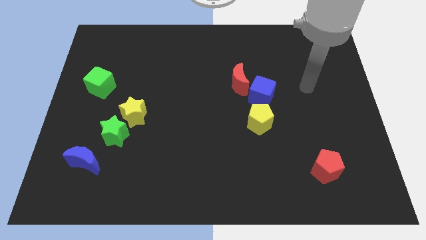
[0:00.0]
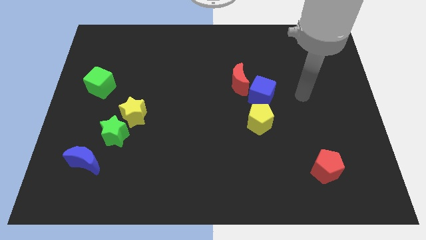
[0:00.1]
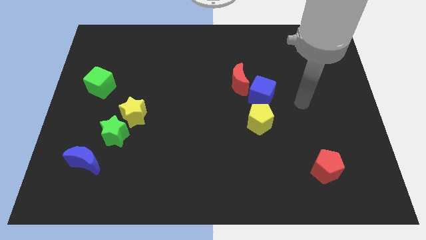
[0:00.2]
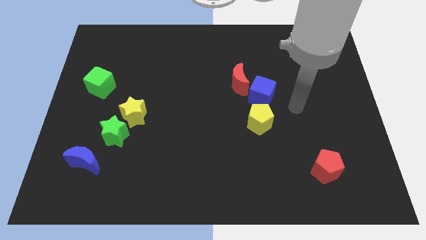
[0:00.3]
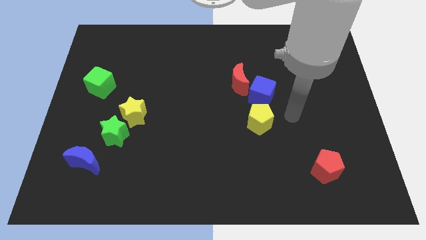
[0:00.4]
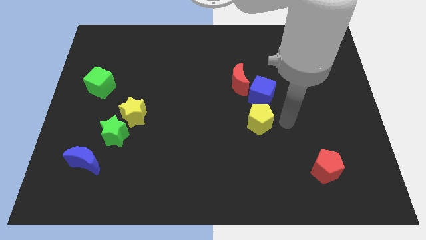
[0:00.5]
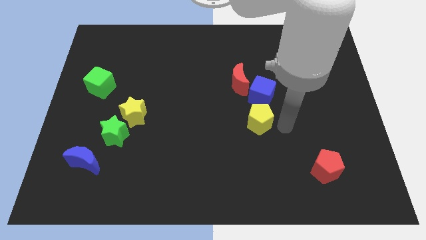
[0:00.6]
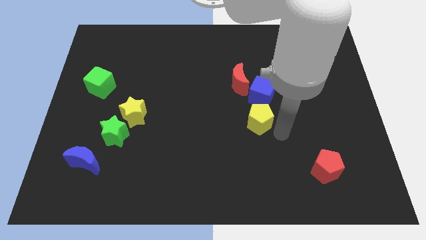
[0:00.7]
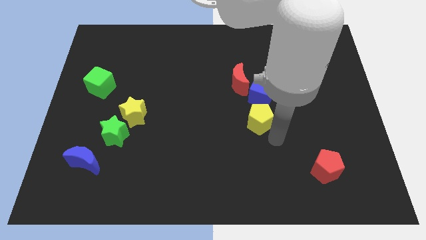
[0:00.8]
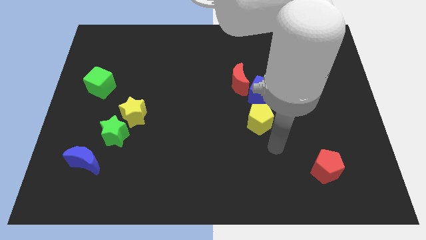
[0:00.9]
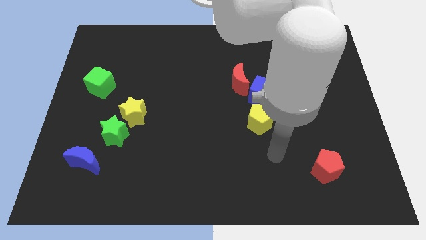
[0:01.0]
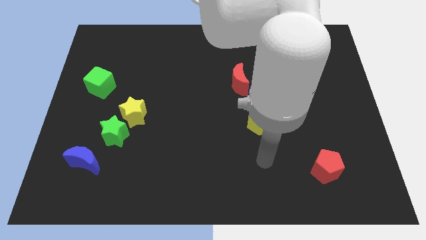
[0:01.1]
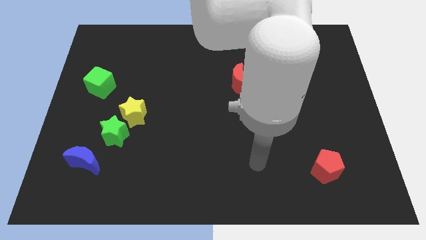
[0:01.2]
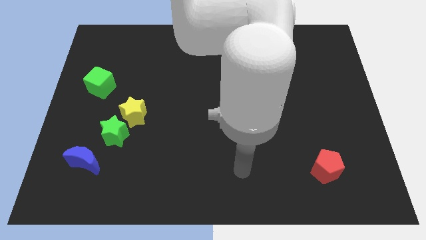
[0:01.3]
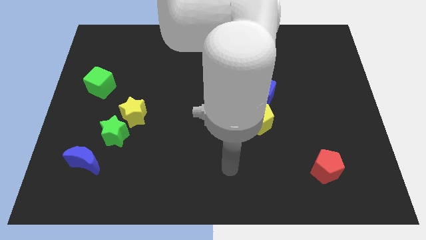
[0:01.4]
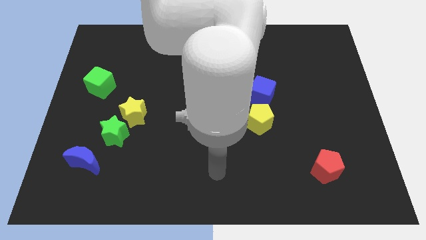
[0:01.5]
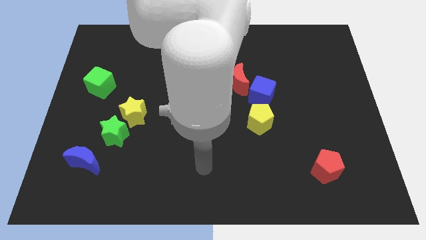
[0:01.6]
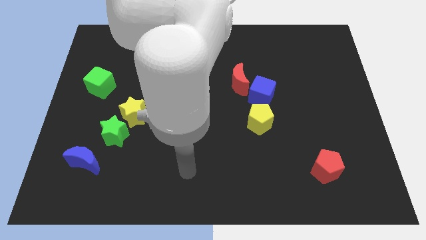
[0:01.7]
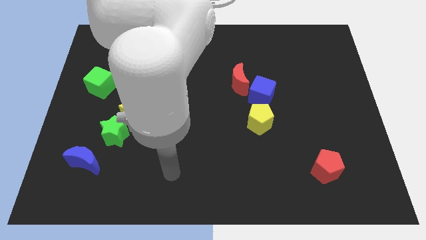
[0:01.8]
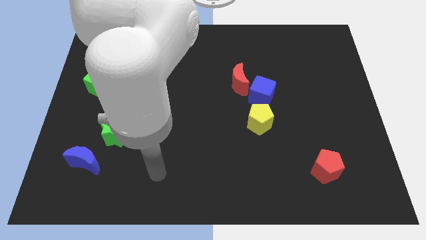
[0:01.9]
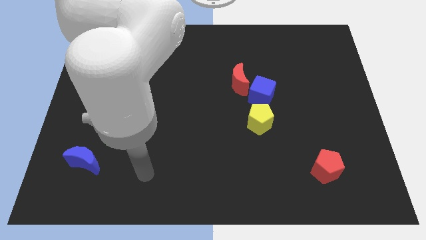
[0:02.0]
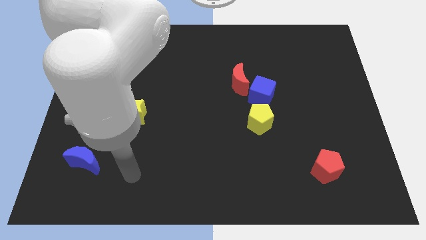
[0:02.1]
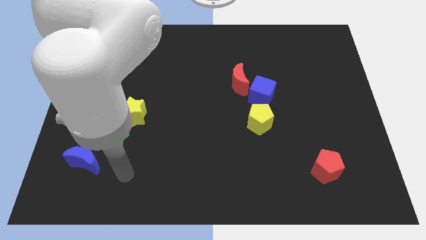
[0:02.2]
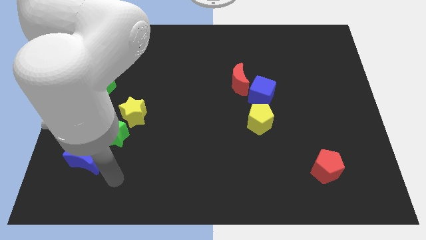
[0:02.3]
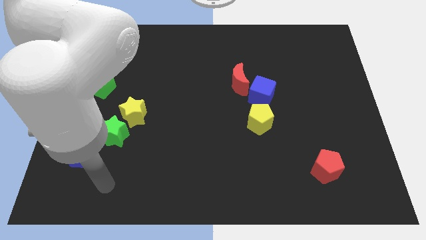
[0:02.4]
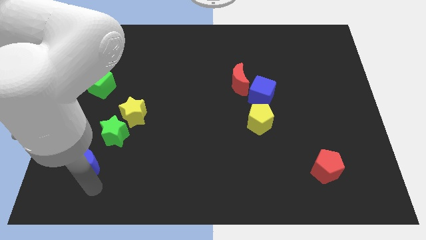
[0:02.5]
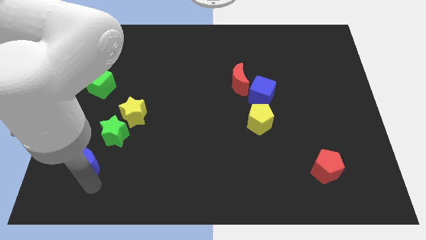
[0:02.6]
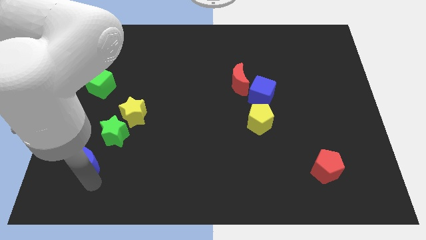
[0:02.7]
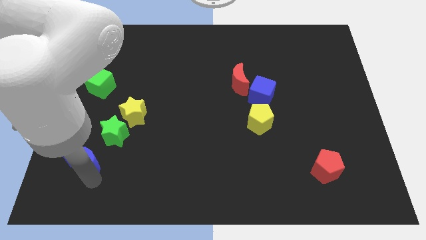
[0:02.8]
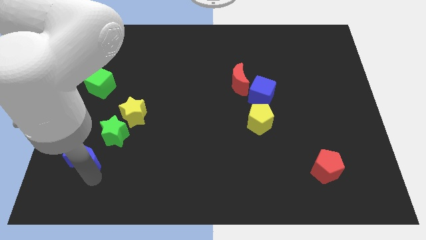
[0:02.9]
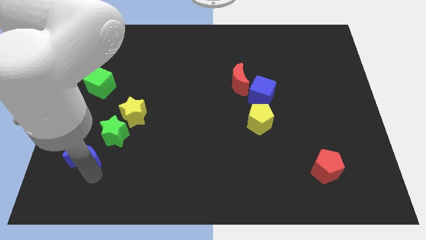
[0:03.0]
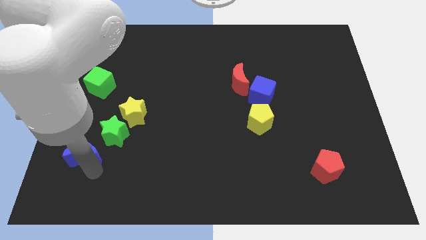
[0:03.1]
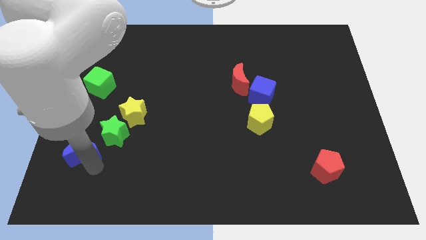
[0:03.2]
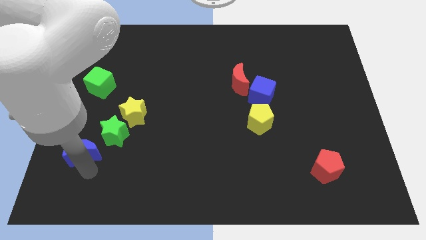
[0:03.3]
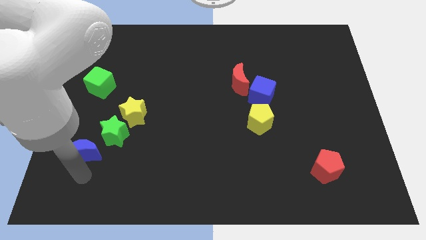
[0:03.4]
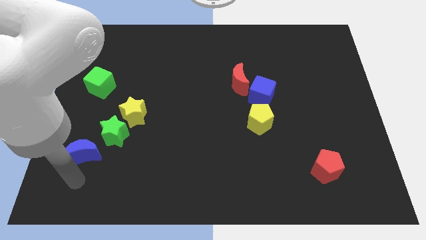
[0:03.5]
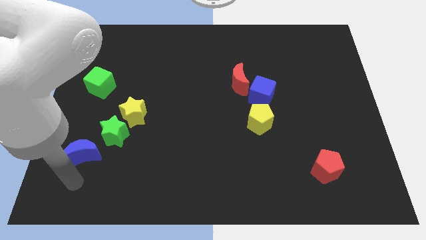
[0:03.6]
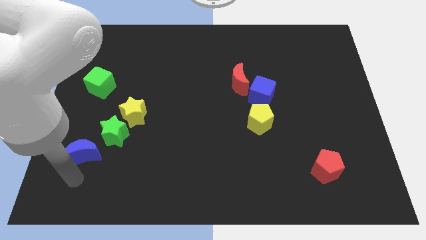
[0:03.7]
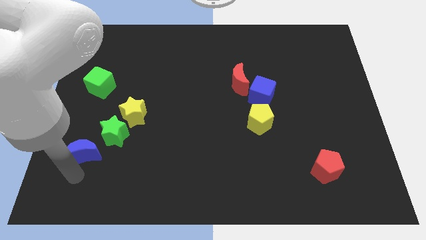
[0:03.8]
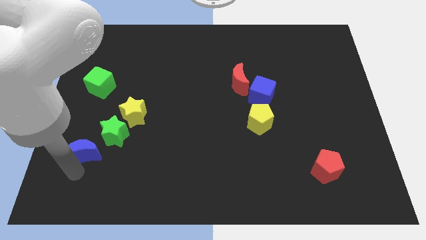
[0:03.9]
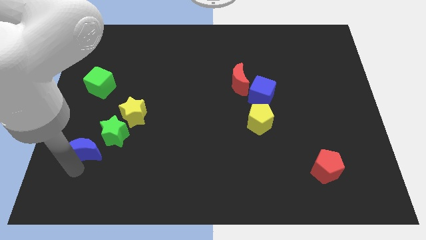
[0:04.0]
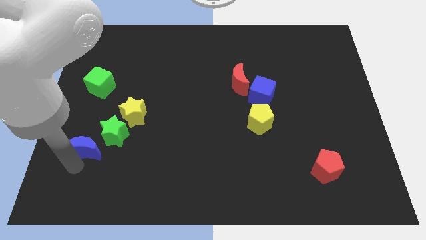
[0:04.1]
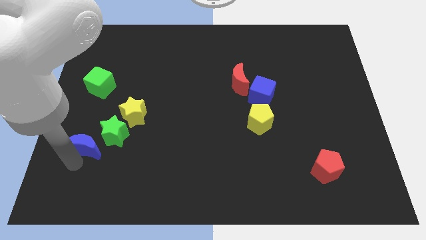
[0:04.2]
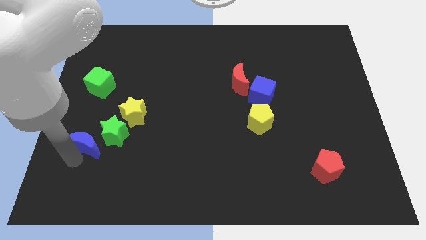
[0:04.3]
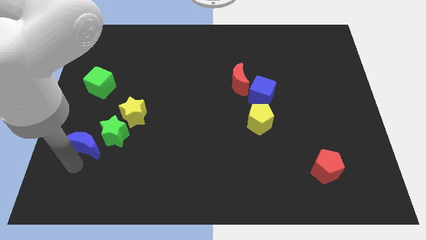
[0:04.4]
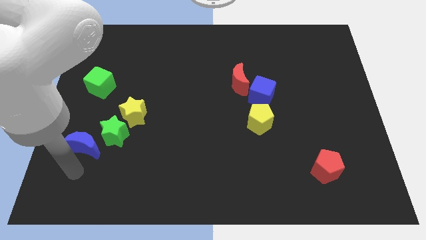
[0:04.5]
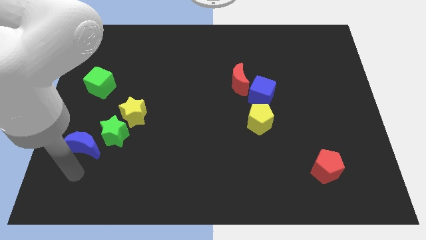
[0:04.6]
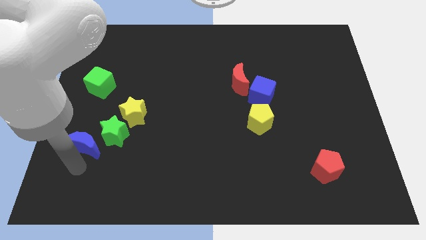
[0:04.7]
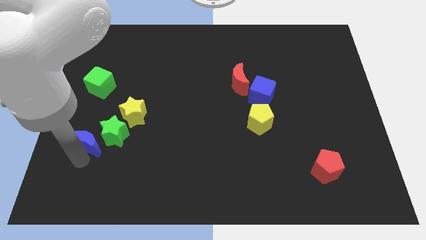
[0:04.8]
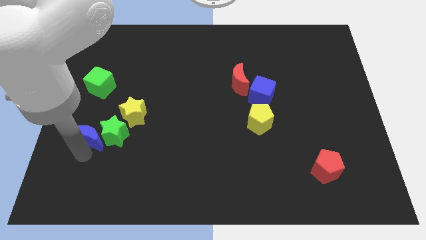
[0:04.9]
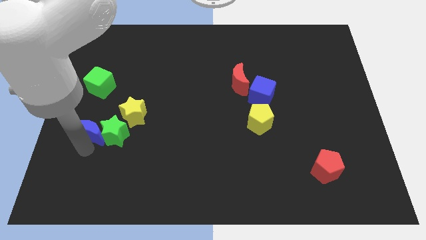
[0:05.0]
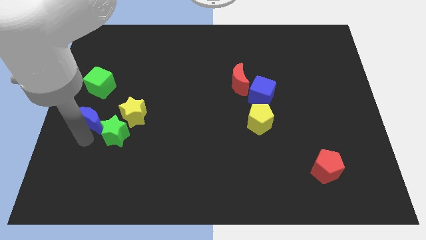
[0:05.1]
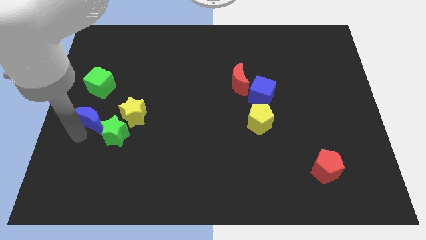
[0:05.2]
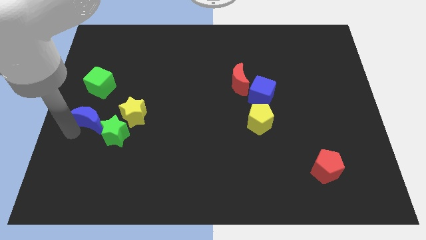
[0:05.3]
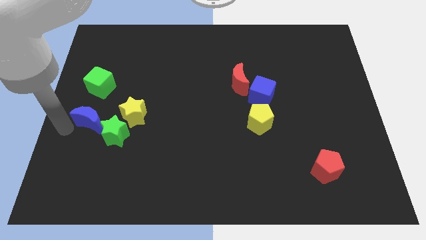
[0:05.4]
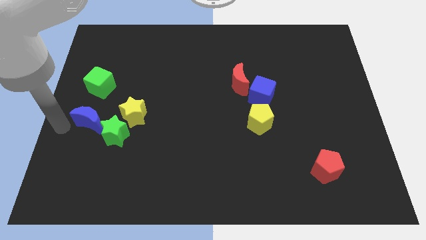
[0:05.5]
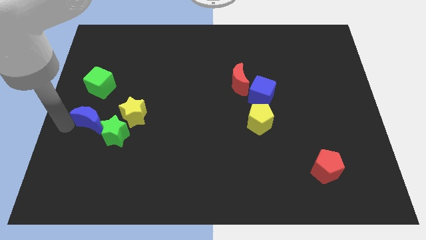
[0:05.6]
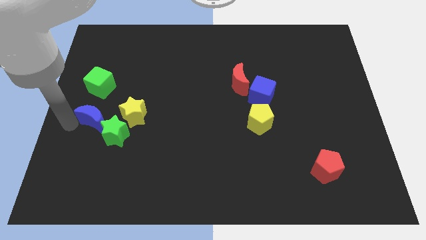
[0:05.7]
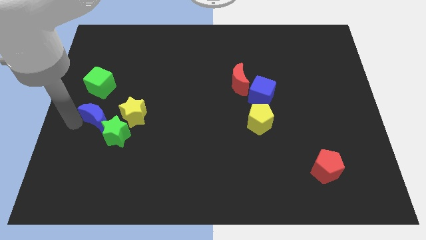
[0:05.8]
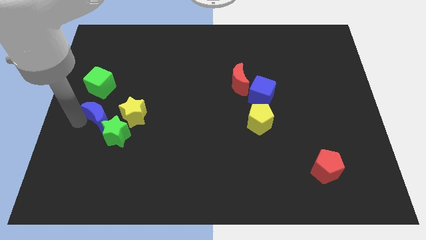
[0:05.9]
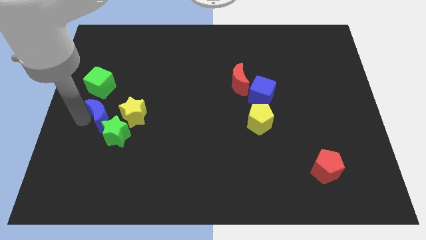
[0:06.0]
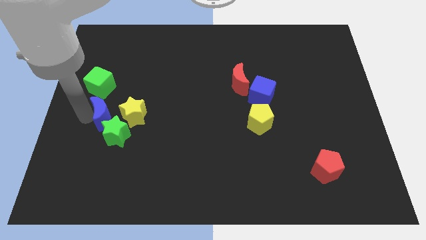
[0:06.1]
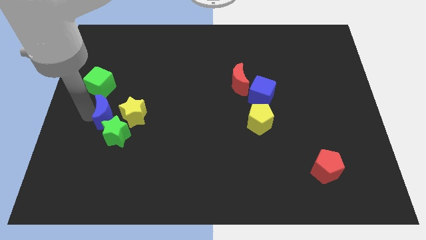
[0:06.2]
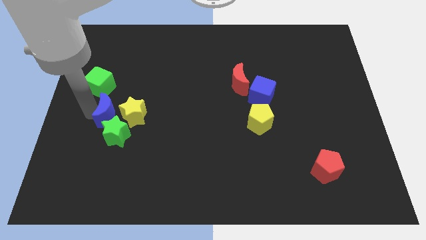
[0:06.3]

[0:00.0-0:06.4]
move the blue moon to the yellow star

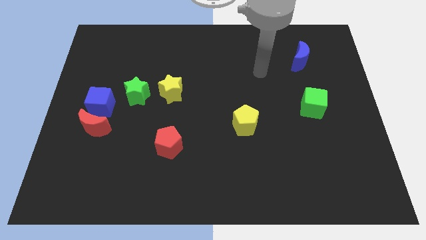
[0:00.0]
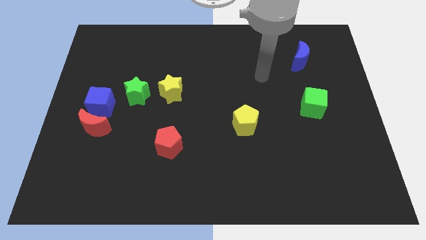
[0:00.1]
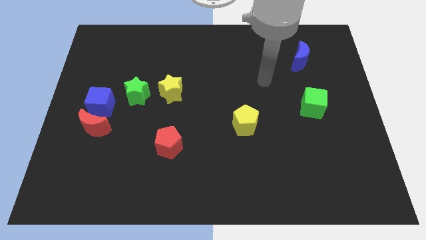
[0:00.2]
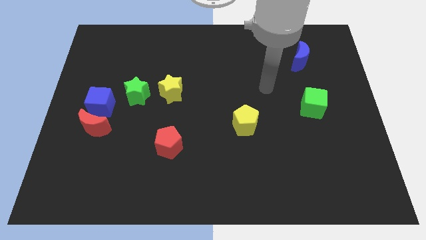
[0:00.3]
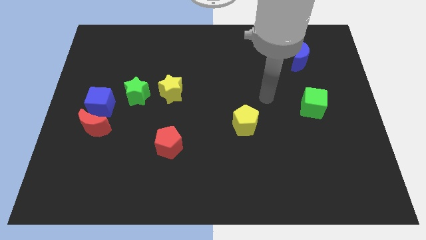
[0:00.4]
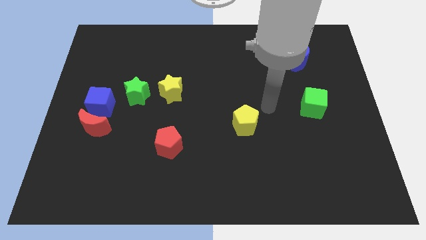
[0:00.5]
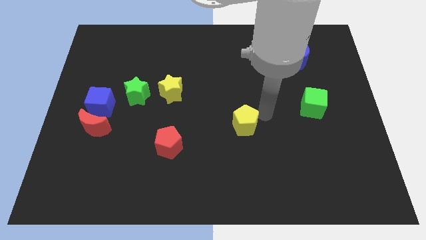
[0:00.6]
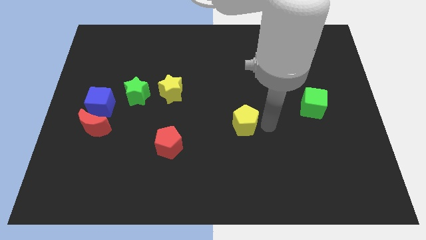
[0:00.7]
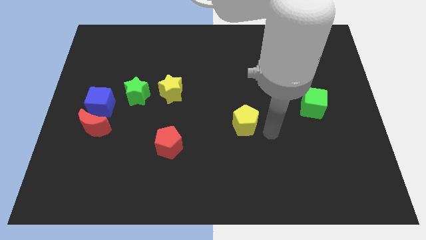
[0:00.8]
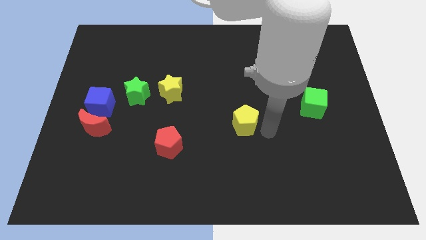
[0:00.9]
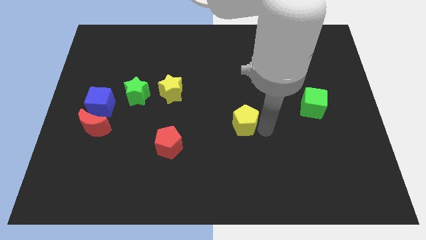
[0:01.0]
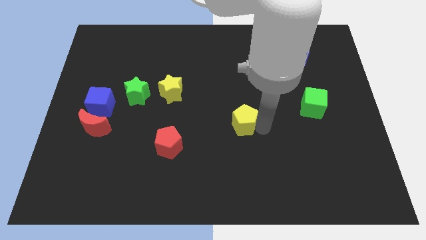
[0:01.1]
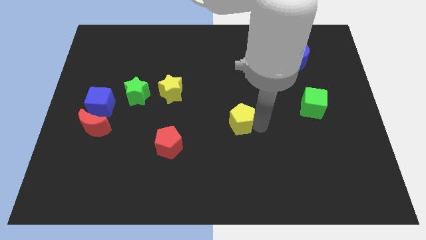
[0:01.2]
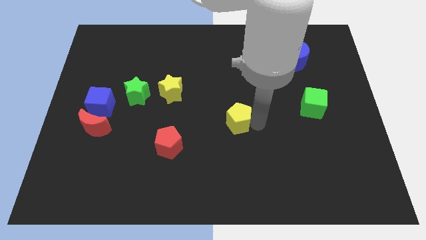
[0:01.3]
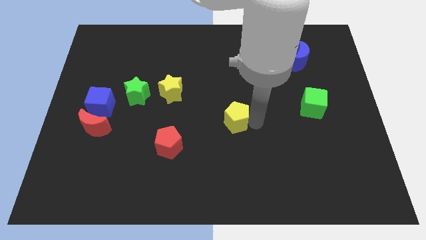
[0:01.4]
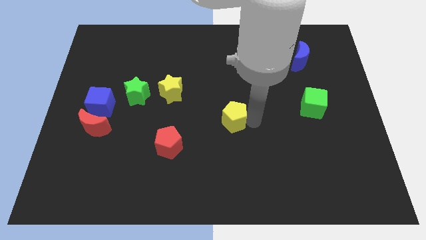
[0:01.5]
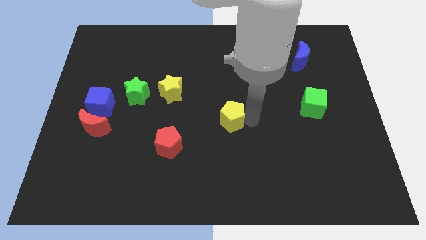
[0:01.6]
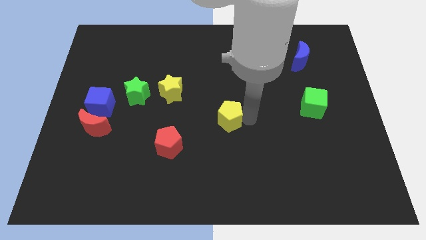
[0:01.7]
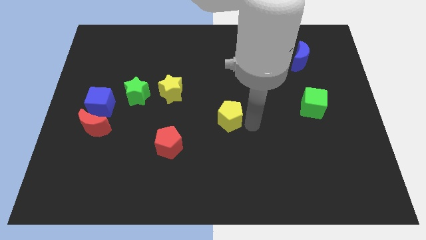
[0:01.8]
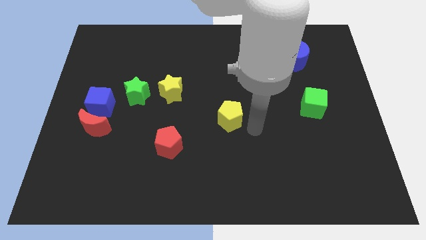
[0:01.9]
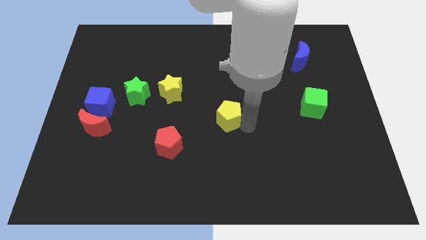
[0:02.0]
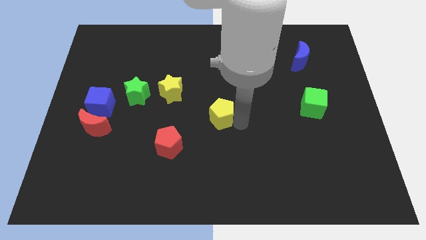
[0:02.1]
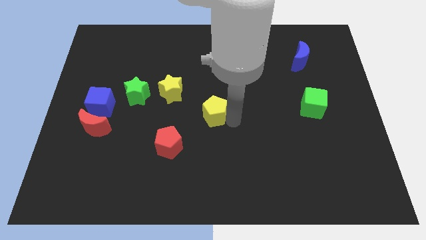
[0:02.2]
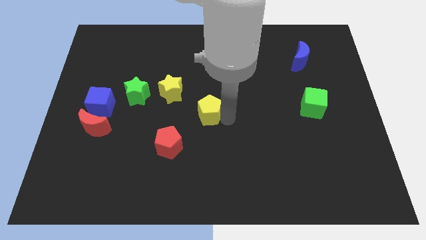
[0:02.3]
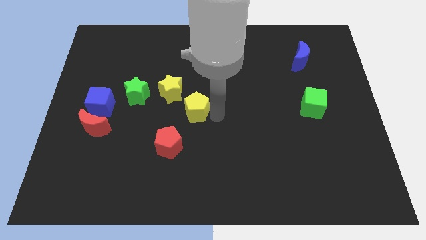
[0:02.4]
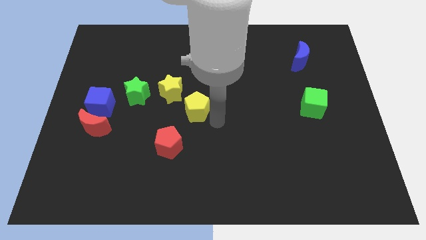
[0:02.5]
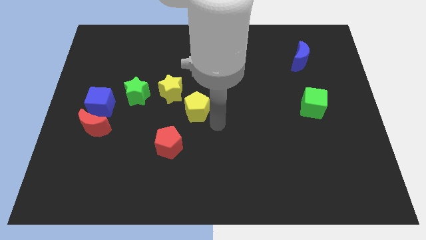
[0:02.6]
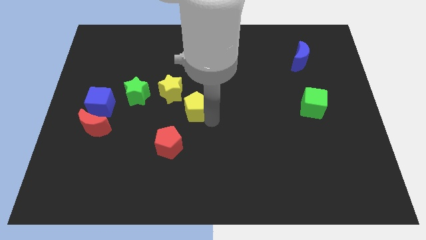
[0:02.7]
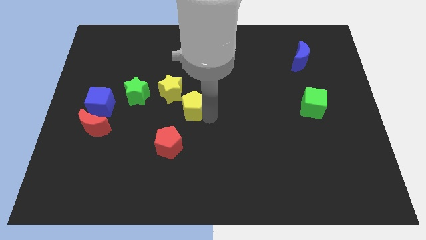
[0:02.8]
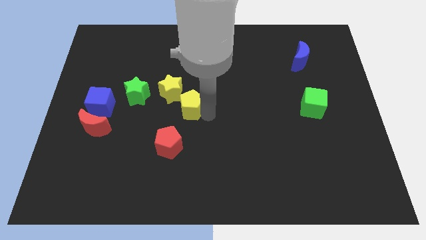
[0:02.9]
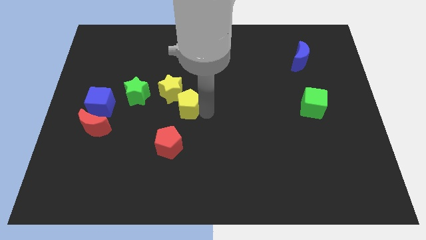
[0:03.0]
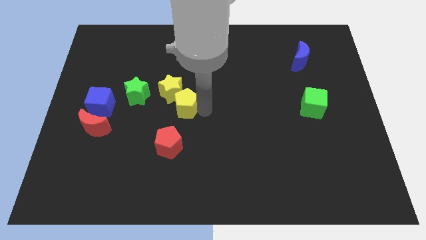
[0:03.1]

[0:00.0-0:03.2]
slide the yellow pentagon close to the yellow star
